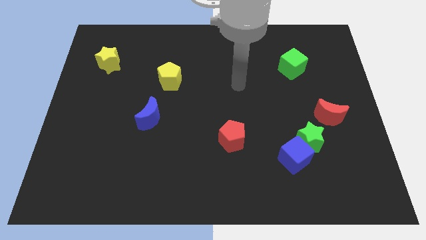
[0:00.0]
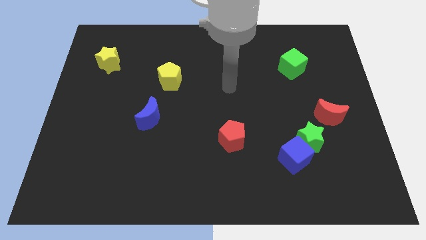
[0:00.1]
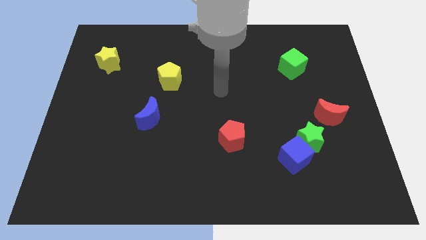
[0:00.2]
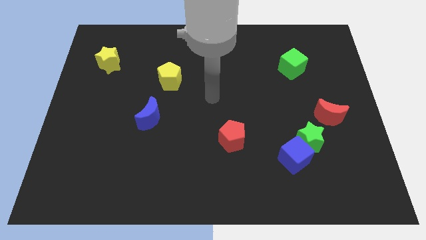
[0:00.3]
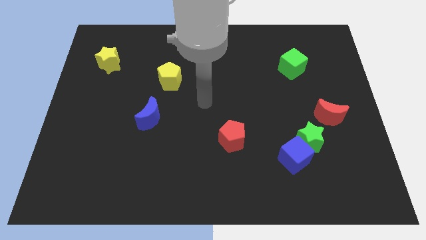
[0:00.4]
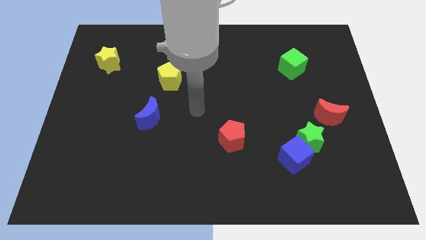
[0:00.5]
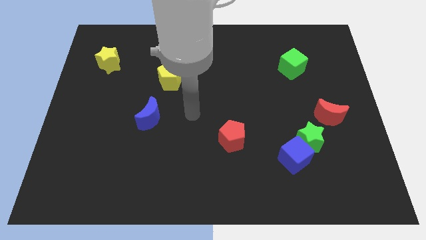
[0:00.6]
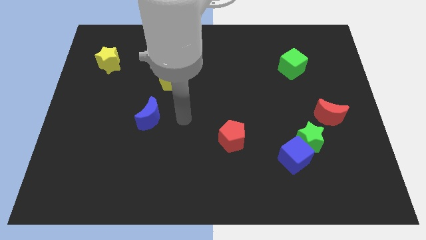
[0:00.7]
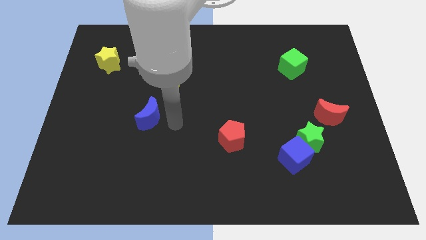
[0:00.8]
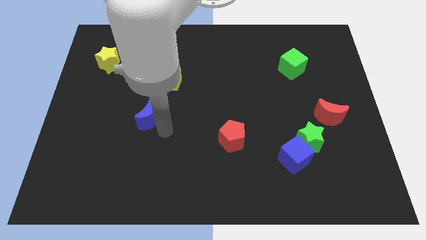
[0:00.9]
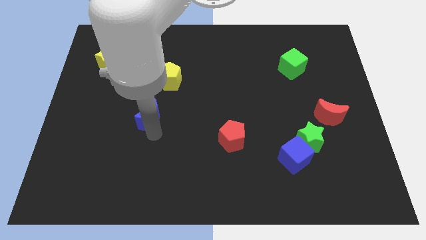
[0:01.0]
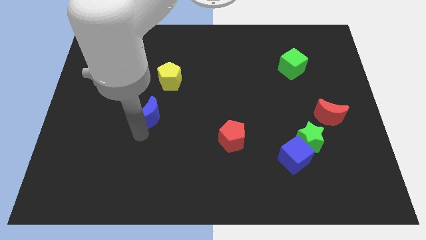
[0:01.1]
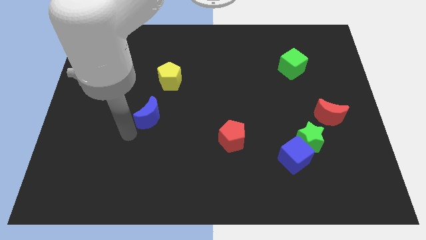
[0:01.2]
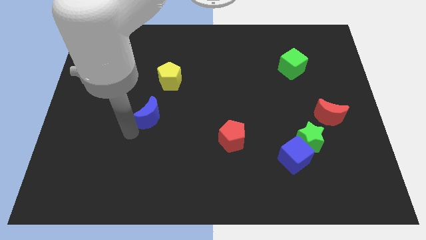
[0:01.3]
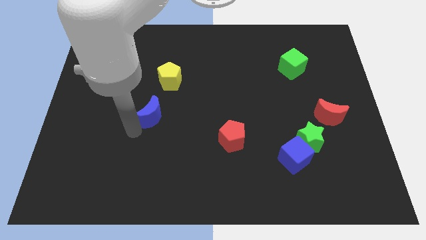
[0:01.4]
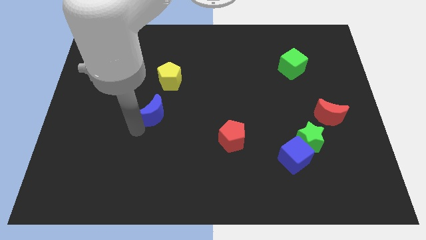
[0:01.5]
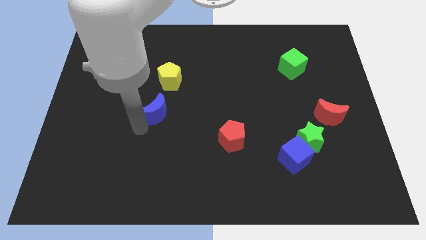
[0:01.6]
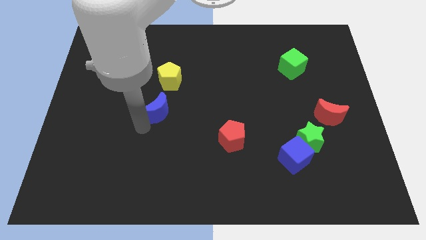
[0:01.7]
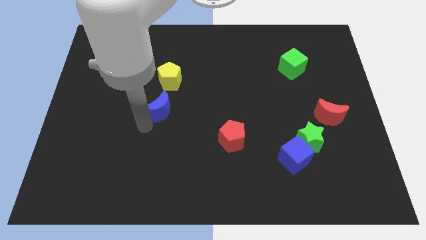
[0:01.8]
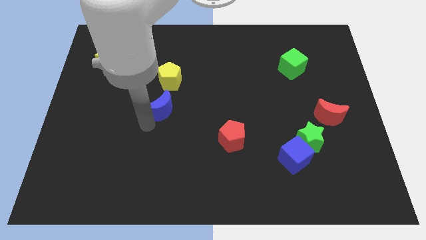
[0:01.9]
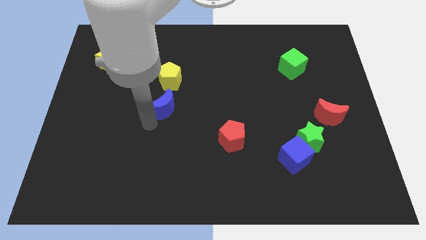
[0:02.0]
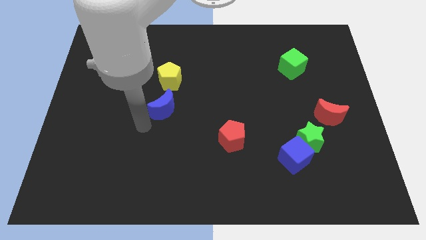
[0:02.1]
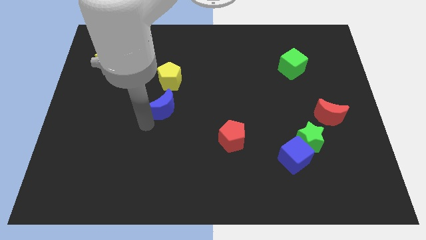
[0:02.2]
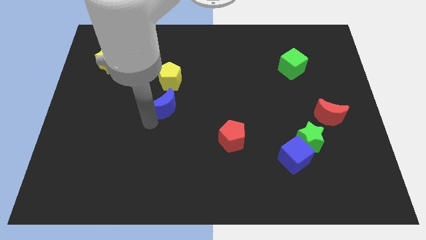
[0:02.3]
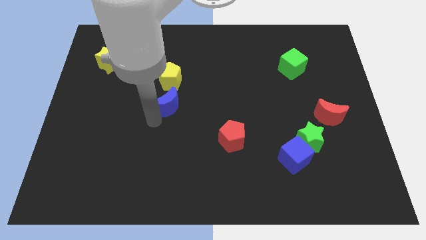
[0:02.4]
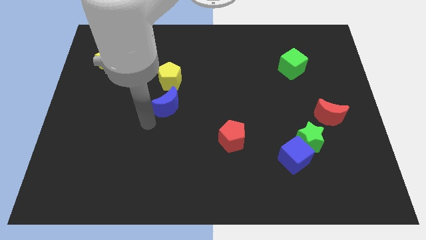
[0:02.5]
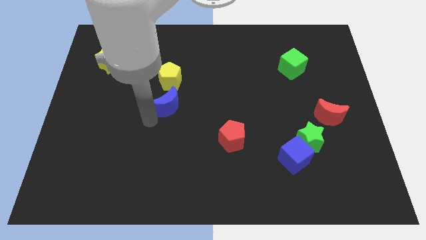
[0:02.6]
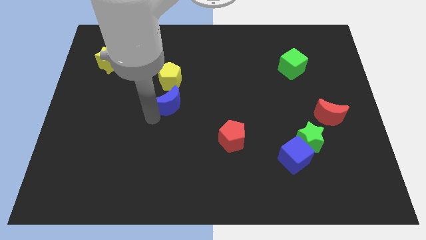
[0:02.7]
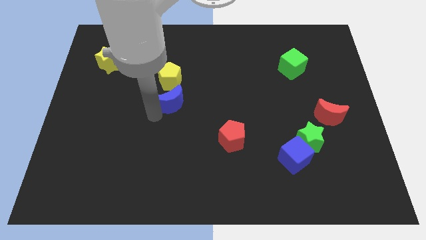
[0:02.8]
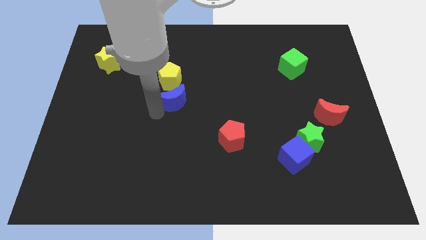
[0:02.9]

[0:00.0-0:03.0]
push the blue moon upwards and to the right diagonally a little bit

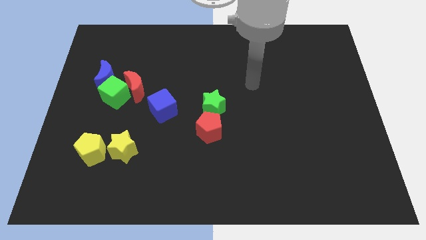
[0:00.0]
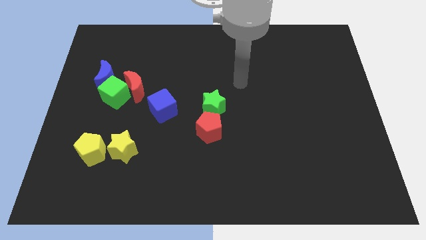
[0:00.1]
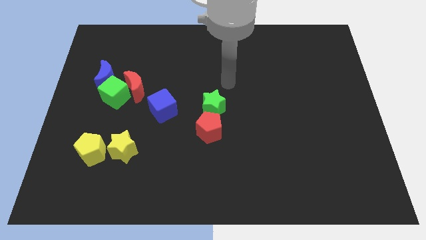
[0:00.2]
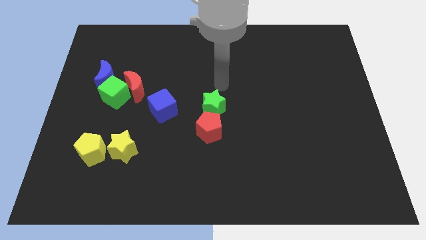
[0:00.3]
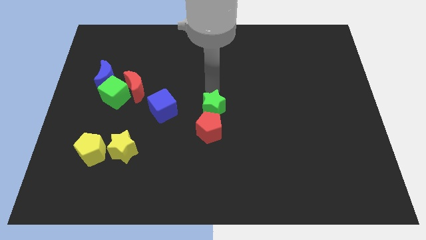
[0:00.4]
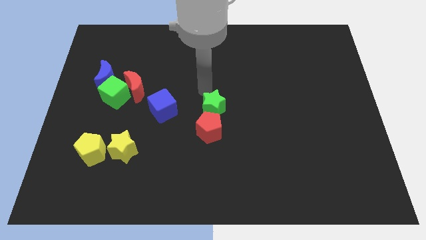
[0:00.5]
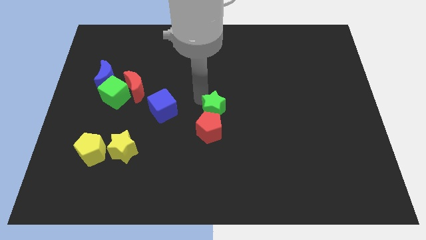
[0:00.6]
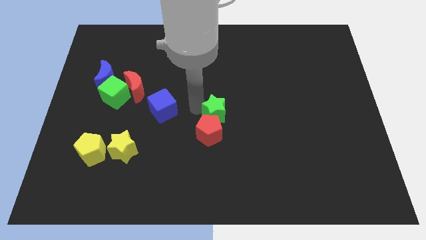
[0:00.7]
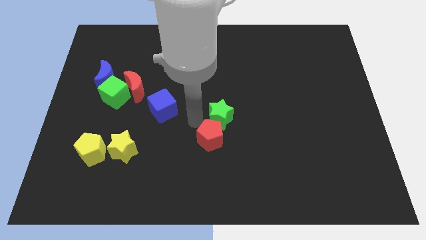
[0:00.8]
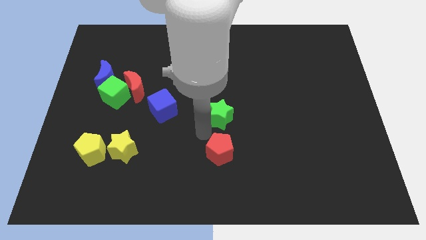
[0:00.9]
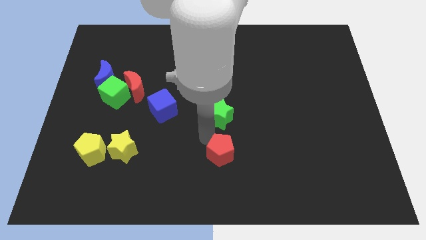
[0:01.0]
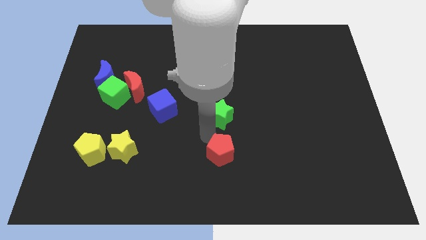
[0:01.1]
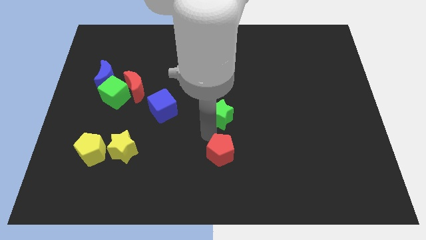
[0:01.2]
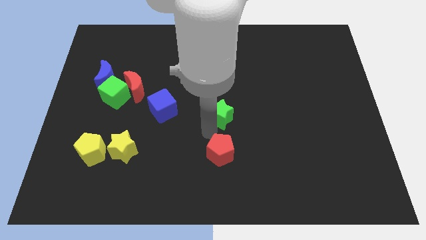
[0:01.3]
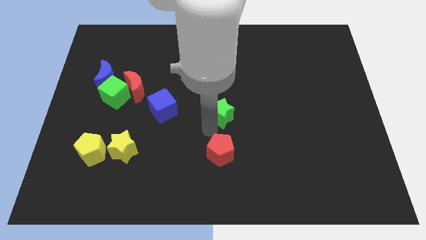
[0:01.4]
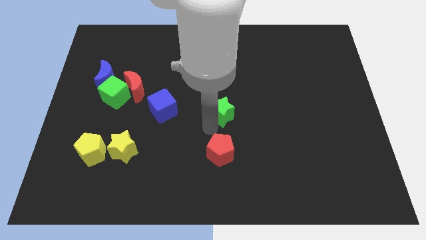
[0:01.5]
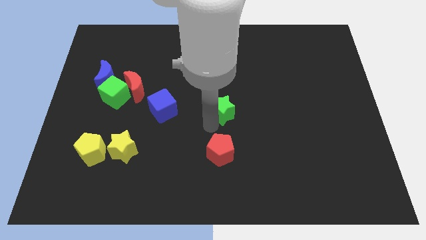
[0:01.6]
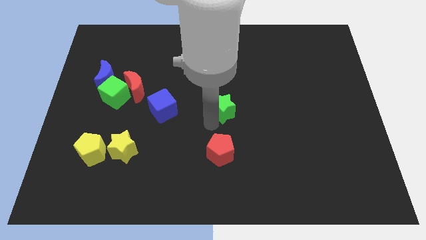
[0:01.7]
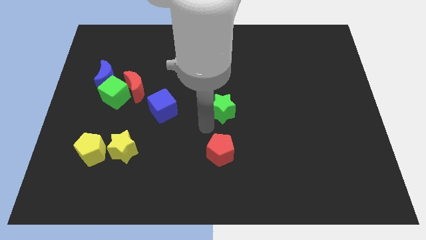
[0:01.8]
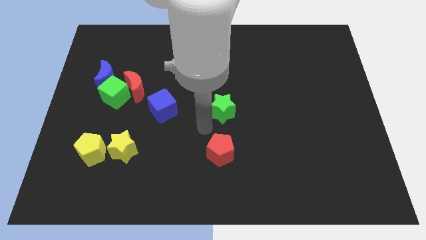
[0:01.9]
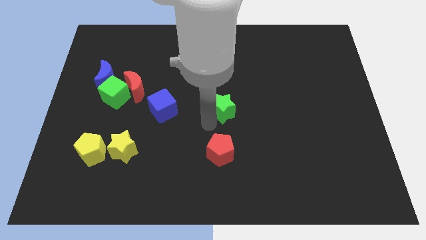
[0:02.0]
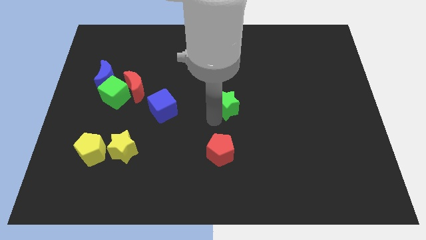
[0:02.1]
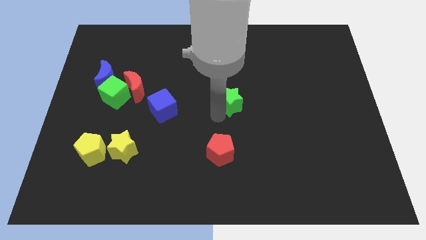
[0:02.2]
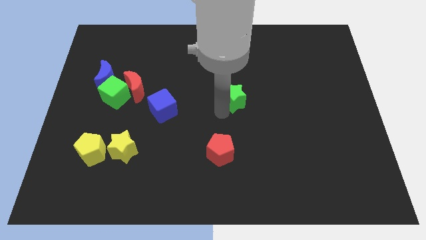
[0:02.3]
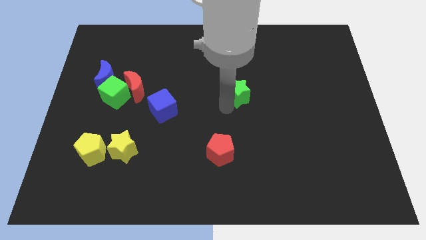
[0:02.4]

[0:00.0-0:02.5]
push the green star upwards and then to the right a little bit

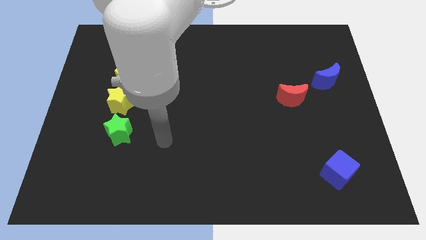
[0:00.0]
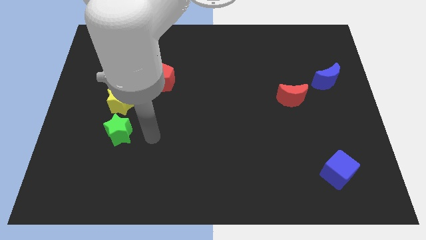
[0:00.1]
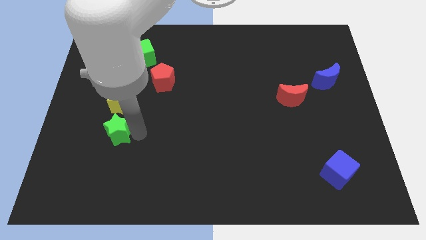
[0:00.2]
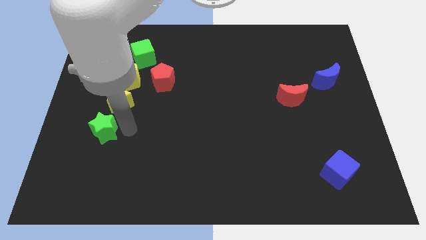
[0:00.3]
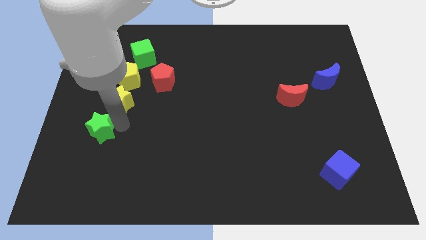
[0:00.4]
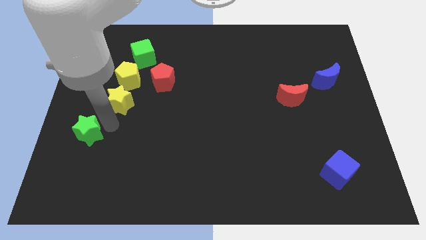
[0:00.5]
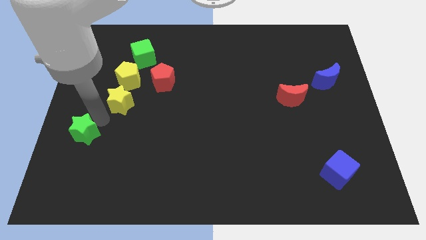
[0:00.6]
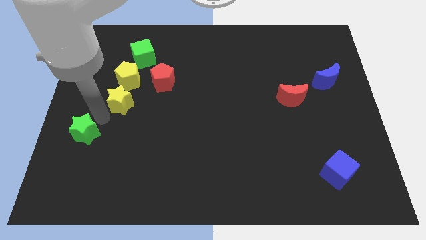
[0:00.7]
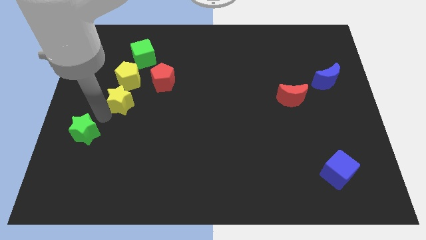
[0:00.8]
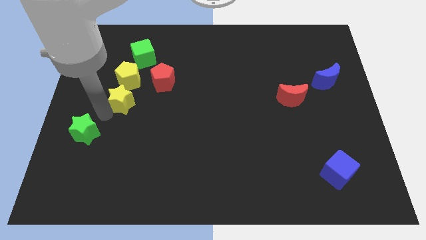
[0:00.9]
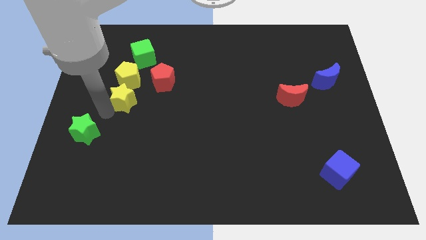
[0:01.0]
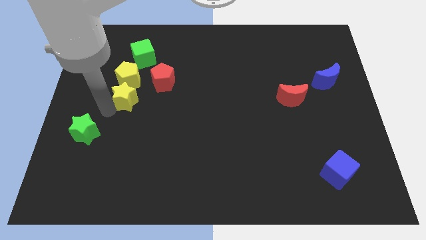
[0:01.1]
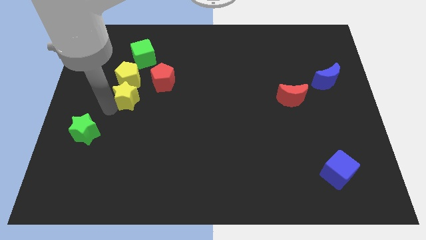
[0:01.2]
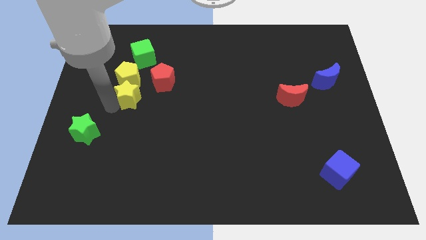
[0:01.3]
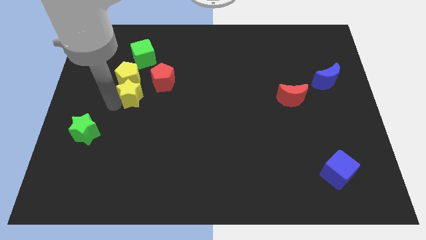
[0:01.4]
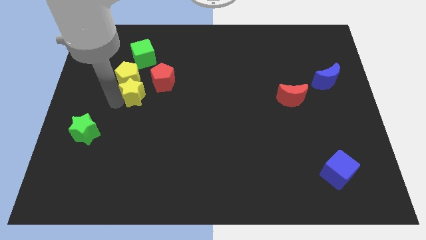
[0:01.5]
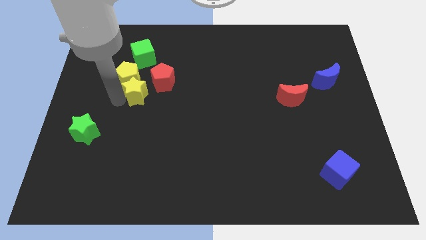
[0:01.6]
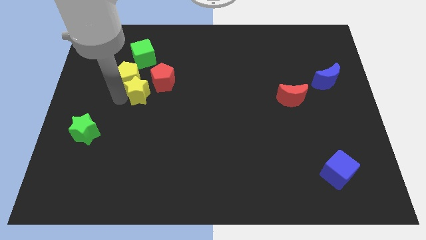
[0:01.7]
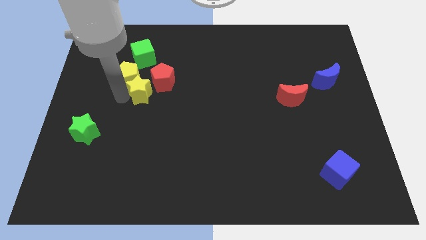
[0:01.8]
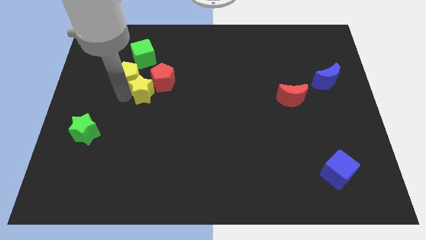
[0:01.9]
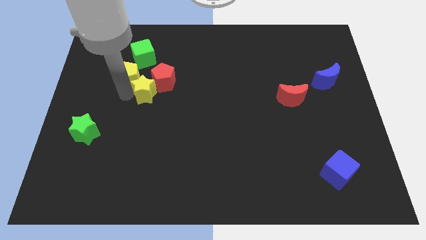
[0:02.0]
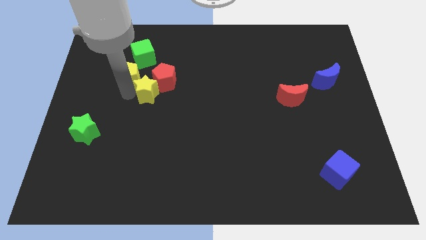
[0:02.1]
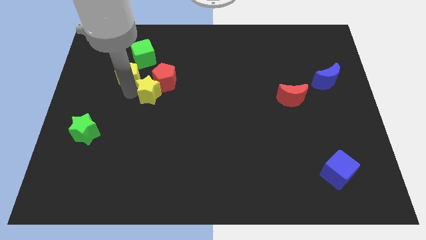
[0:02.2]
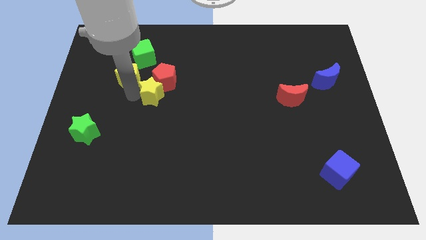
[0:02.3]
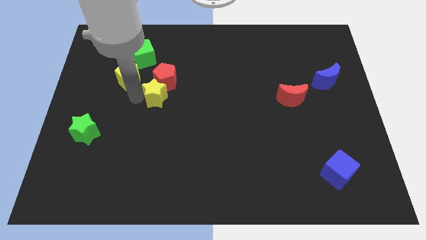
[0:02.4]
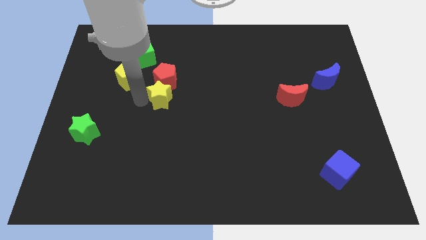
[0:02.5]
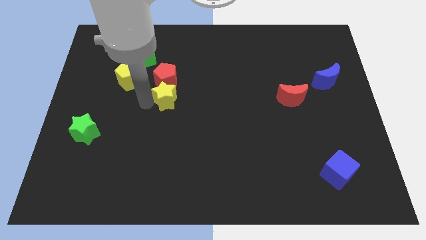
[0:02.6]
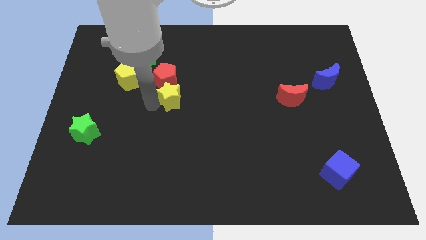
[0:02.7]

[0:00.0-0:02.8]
move the yellow star diagonally upwards and to the right somewhat
